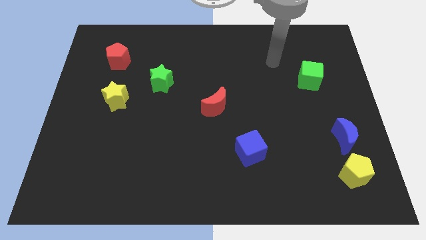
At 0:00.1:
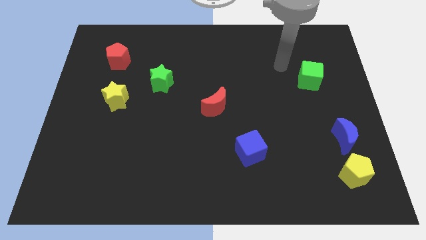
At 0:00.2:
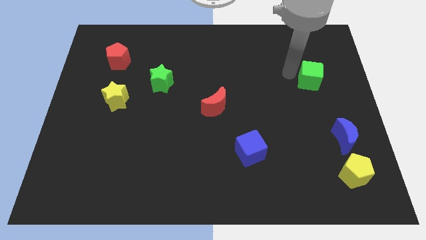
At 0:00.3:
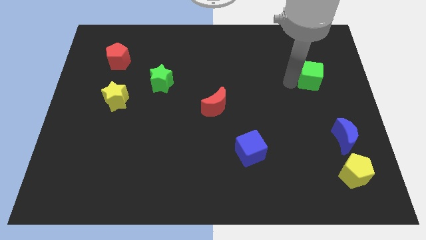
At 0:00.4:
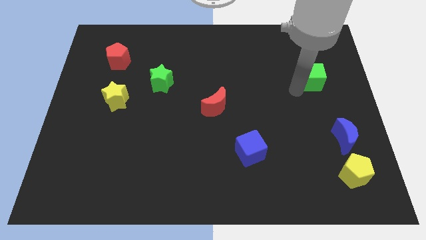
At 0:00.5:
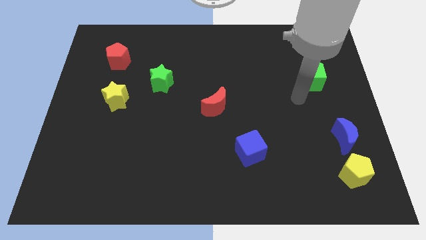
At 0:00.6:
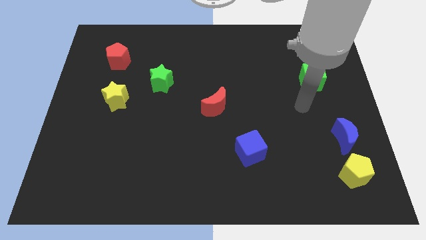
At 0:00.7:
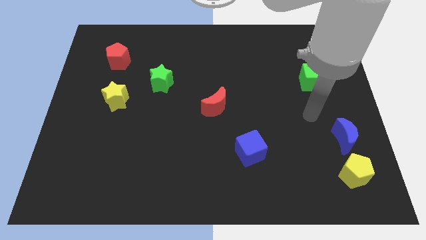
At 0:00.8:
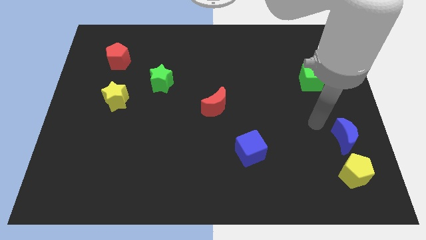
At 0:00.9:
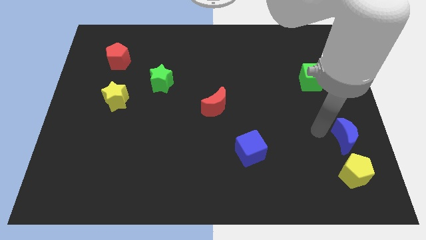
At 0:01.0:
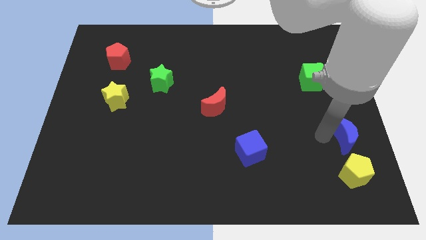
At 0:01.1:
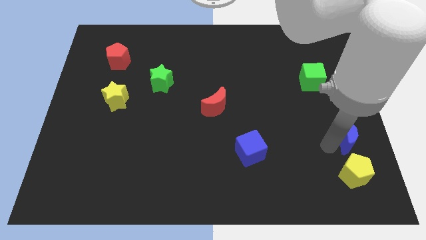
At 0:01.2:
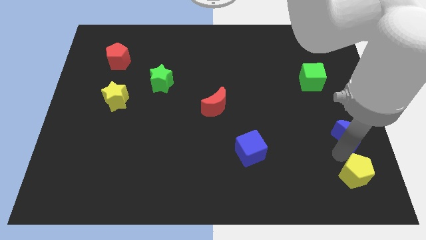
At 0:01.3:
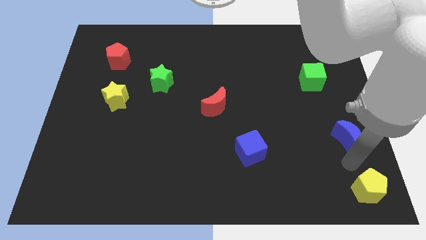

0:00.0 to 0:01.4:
pull the blue moon apart from the yellow pentagon

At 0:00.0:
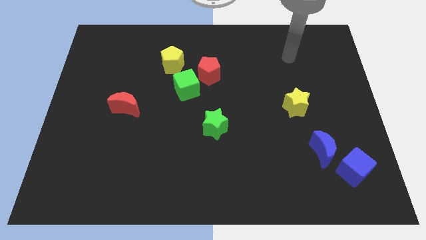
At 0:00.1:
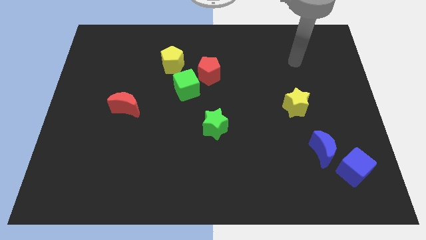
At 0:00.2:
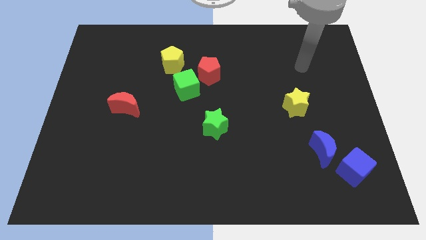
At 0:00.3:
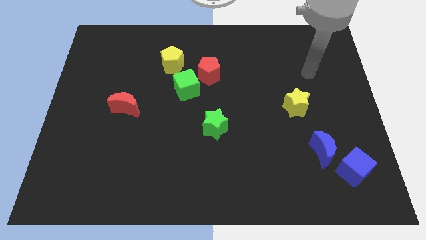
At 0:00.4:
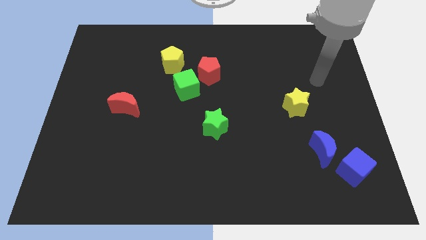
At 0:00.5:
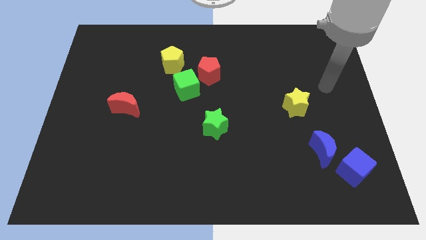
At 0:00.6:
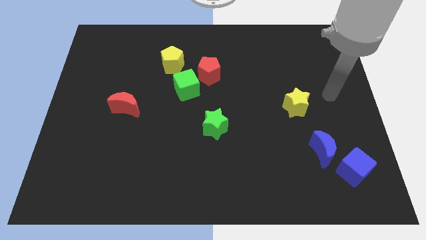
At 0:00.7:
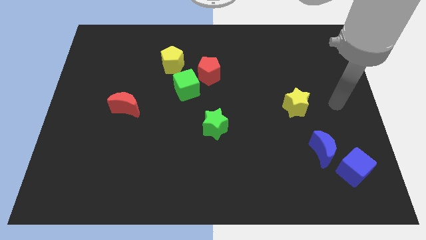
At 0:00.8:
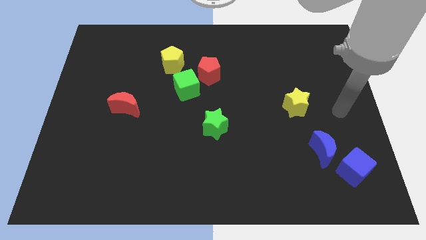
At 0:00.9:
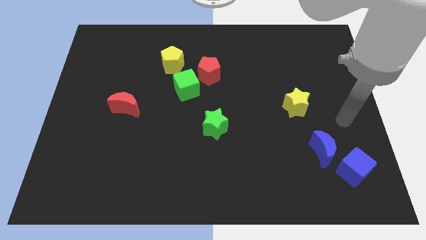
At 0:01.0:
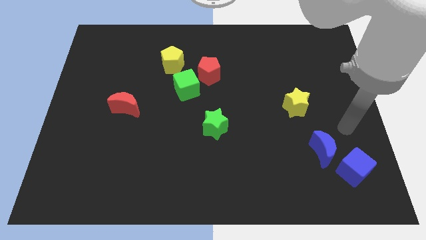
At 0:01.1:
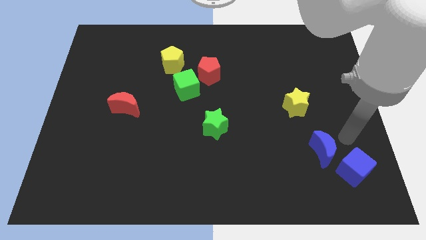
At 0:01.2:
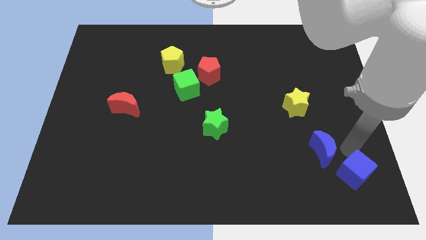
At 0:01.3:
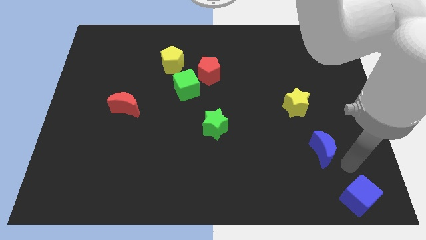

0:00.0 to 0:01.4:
separate the blue moon from the blue cube

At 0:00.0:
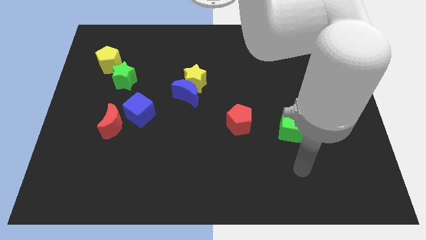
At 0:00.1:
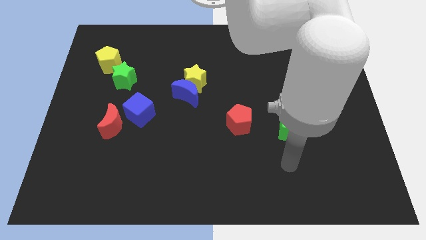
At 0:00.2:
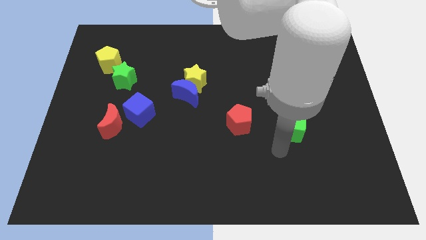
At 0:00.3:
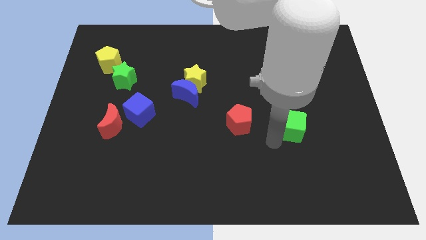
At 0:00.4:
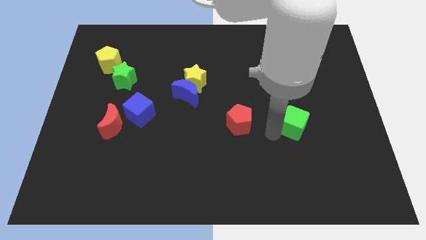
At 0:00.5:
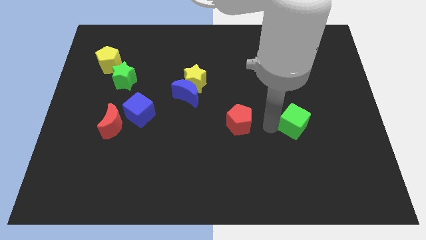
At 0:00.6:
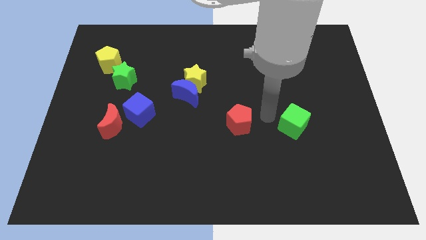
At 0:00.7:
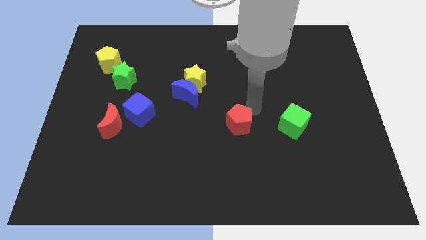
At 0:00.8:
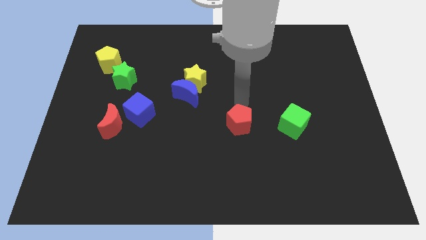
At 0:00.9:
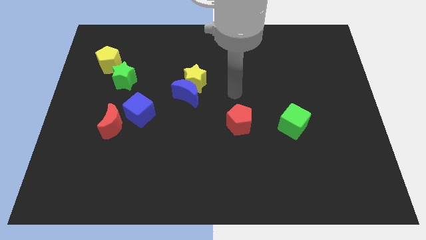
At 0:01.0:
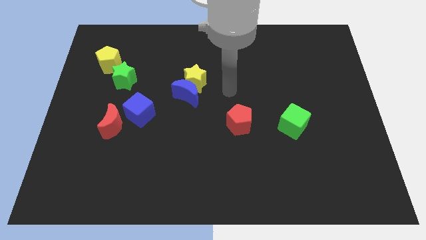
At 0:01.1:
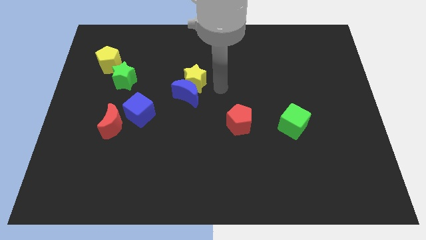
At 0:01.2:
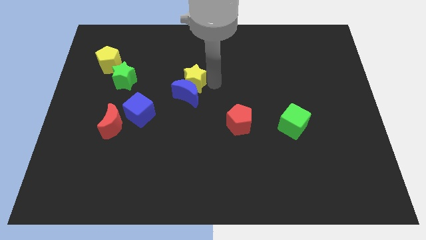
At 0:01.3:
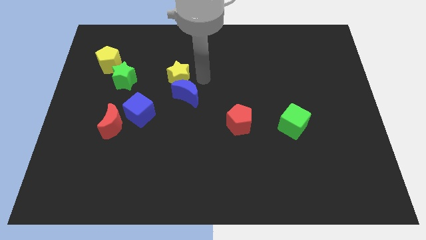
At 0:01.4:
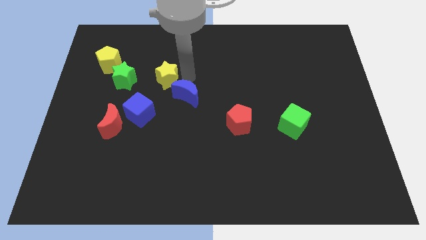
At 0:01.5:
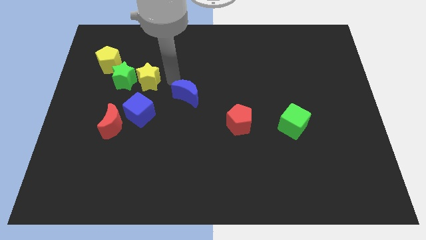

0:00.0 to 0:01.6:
pull the blue moon apart from the yellow star

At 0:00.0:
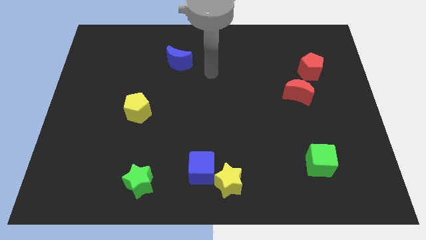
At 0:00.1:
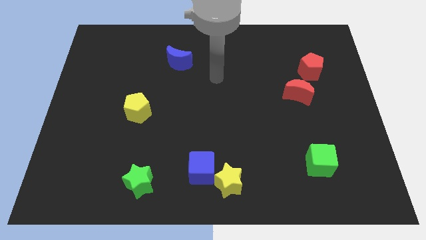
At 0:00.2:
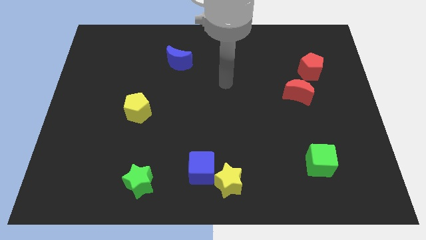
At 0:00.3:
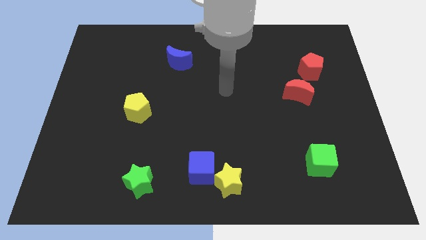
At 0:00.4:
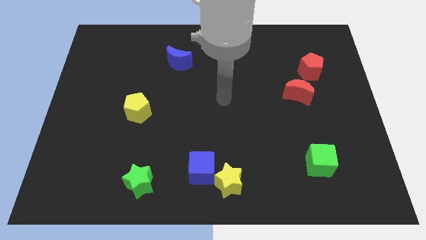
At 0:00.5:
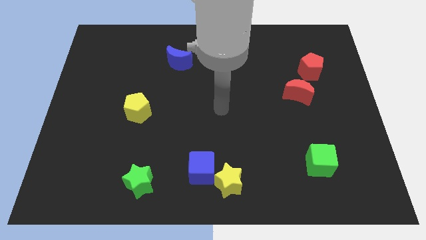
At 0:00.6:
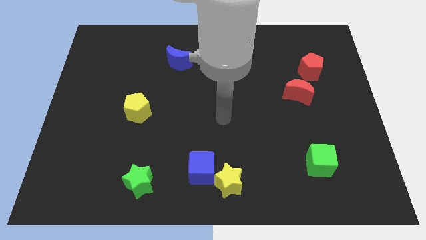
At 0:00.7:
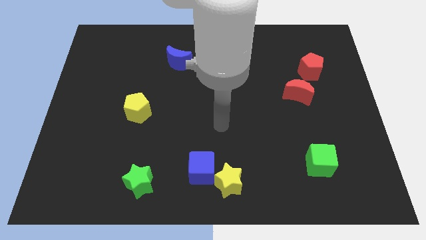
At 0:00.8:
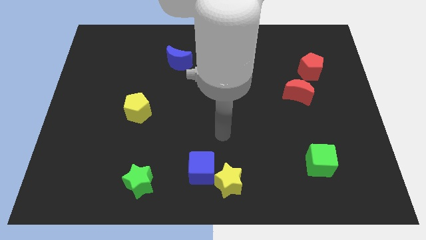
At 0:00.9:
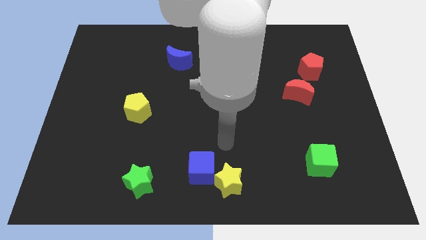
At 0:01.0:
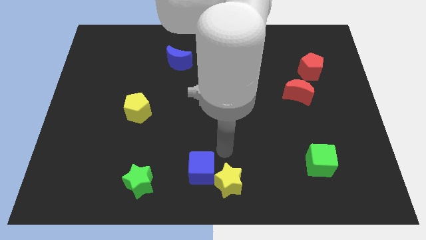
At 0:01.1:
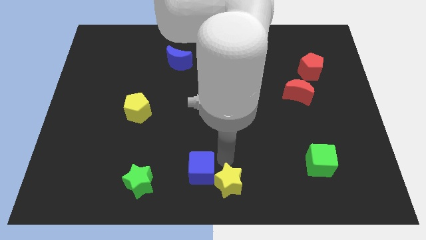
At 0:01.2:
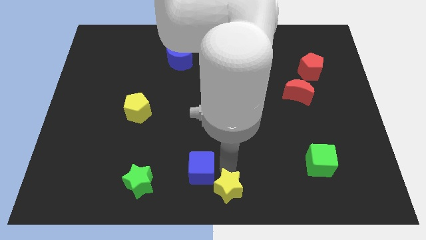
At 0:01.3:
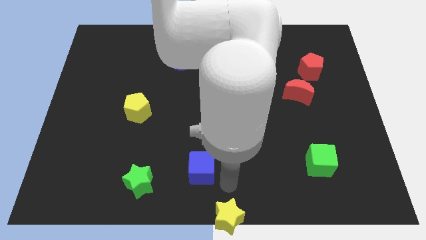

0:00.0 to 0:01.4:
move the blue cube away from the yellow star

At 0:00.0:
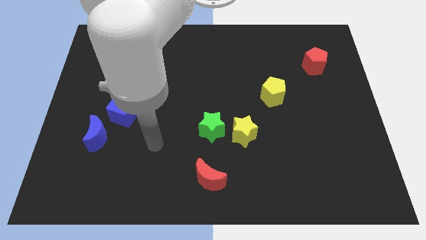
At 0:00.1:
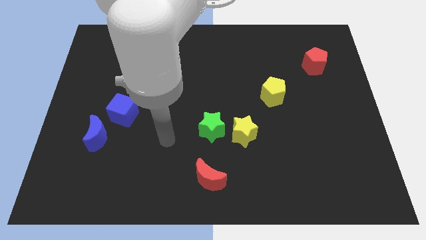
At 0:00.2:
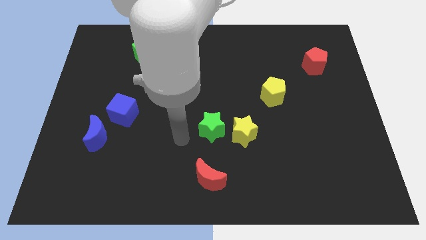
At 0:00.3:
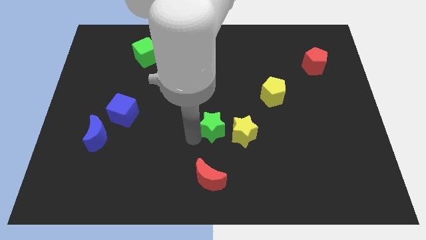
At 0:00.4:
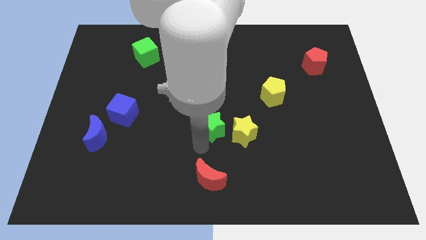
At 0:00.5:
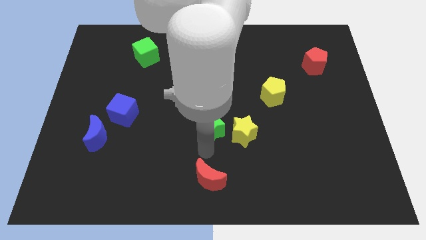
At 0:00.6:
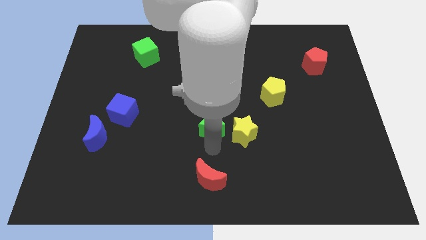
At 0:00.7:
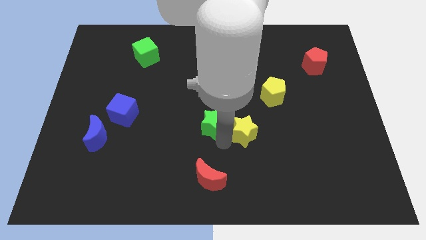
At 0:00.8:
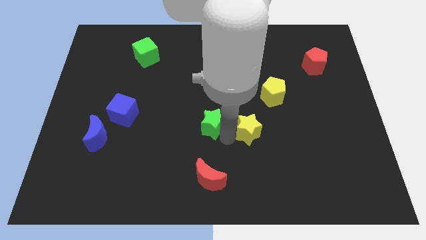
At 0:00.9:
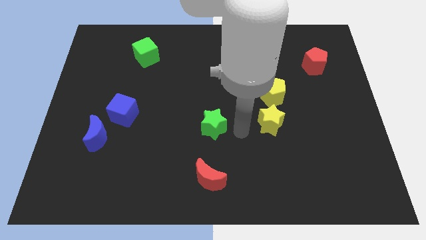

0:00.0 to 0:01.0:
separate the green star from the yellow star

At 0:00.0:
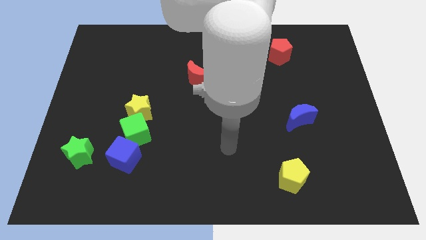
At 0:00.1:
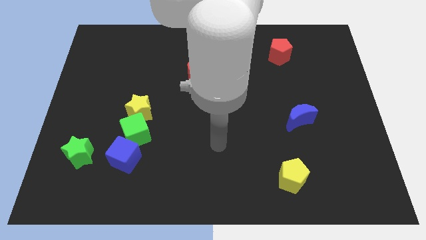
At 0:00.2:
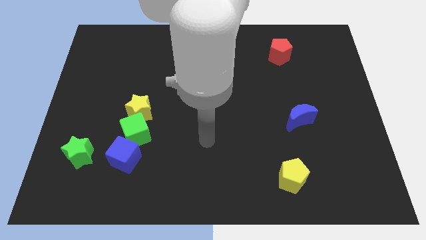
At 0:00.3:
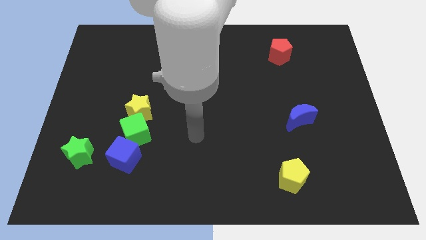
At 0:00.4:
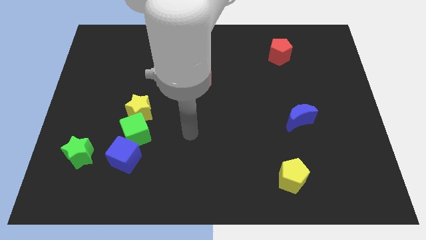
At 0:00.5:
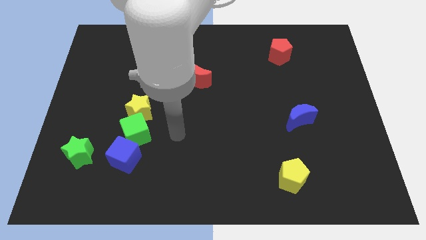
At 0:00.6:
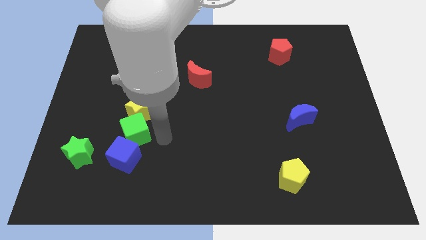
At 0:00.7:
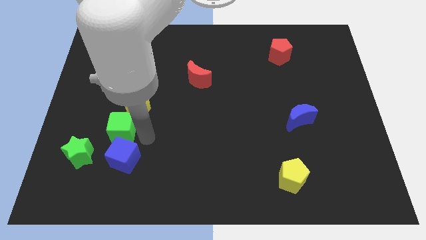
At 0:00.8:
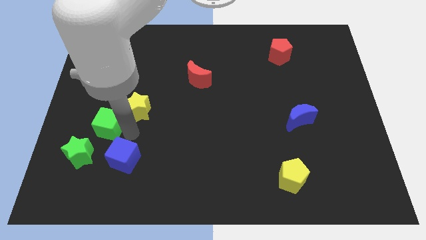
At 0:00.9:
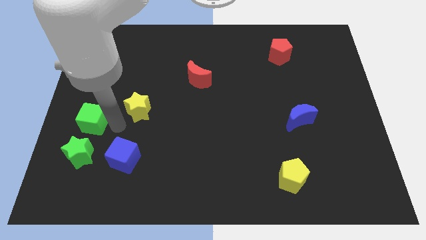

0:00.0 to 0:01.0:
separate the yellow star from the green cube

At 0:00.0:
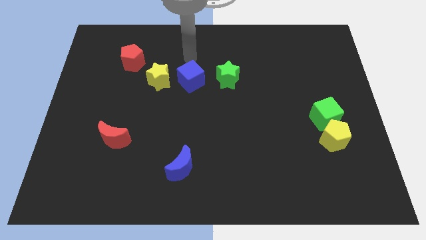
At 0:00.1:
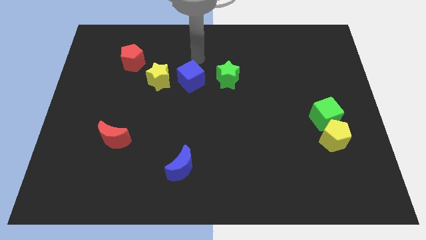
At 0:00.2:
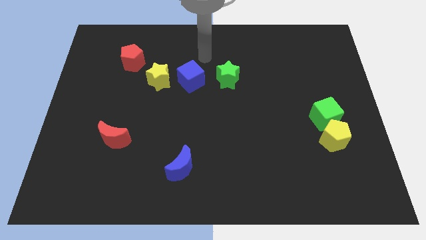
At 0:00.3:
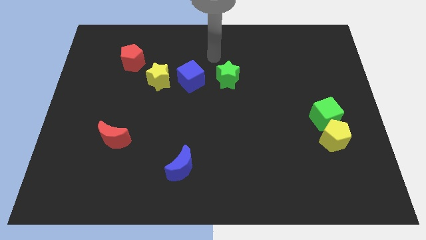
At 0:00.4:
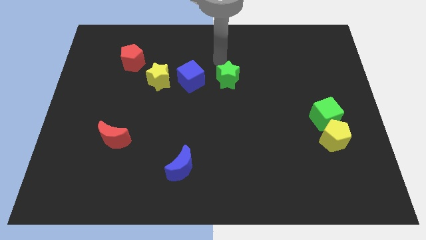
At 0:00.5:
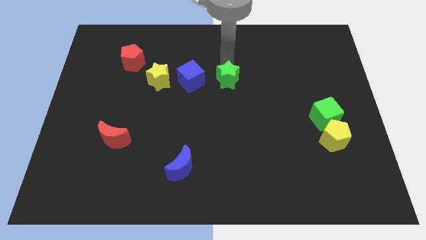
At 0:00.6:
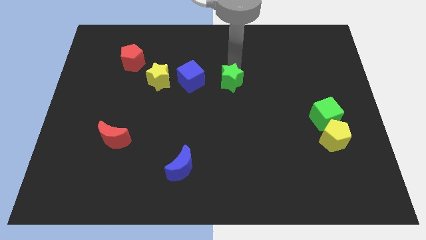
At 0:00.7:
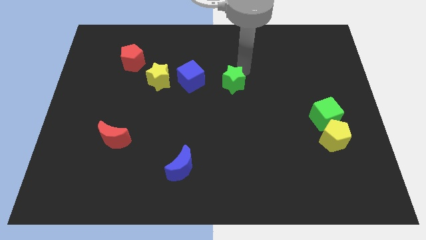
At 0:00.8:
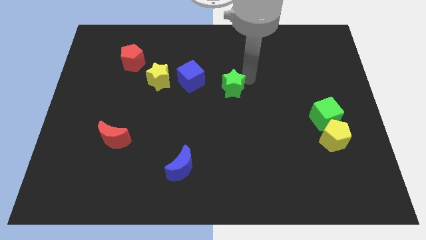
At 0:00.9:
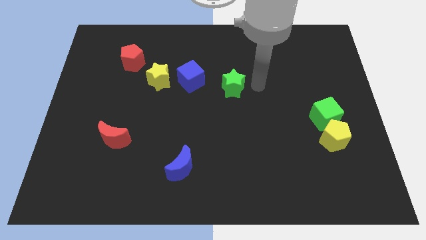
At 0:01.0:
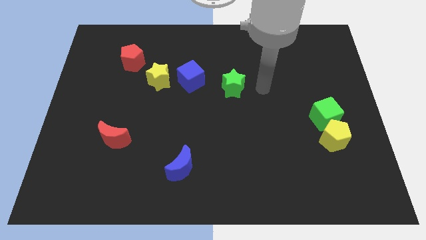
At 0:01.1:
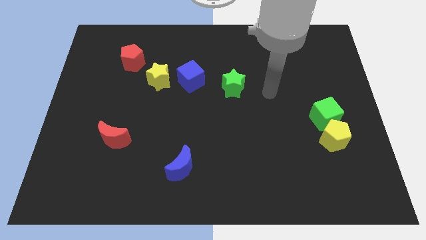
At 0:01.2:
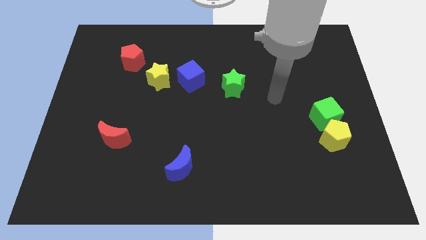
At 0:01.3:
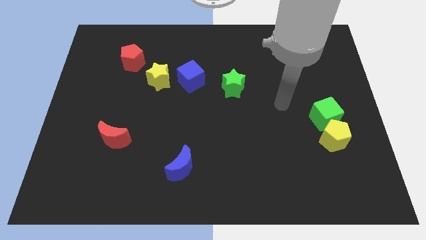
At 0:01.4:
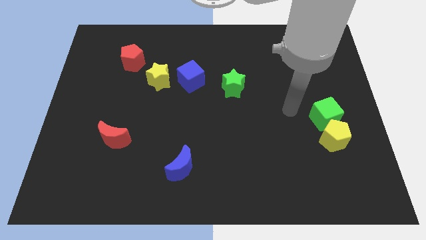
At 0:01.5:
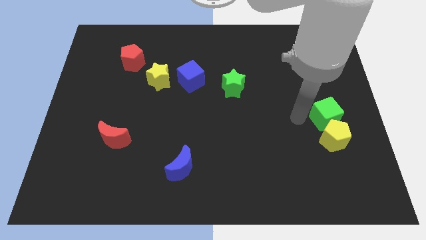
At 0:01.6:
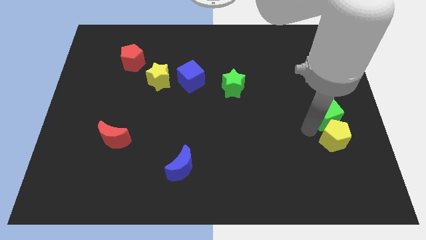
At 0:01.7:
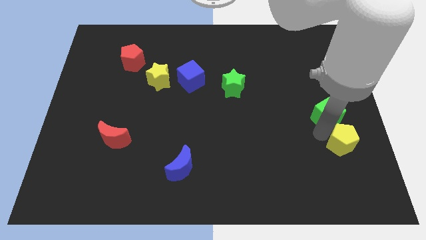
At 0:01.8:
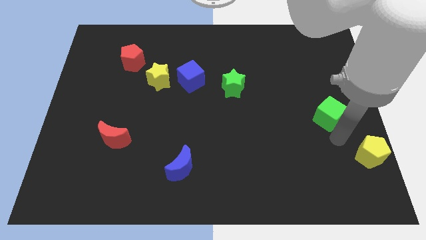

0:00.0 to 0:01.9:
separate the green cube from the yellow pentagon
